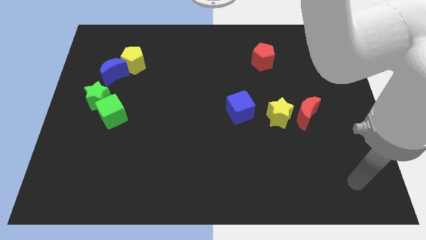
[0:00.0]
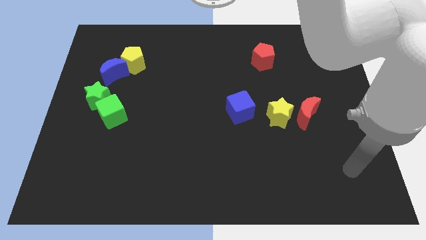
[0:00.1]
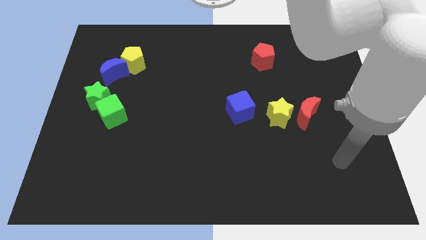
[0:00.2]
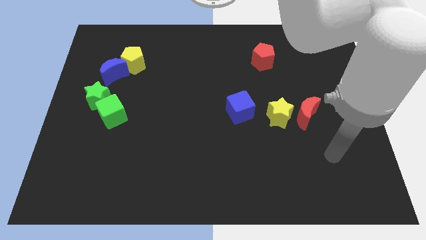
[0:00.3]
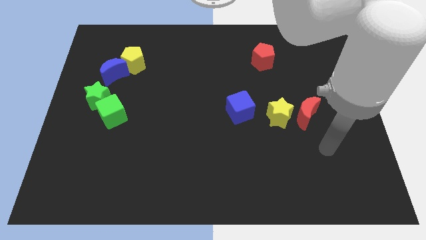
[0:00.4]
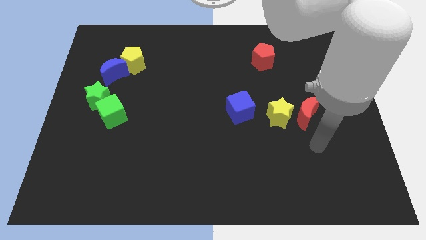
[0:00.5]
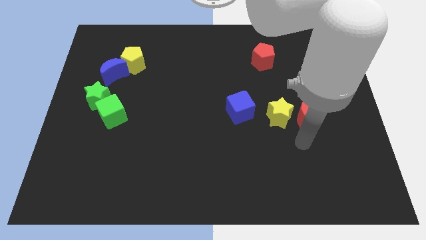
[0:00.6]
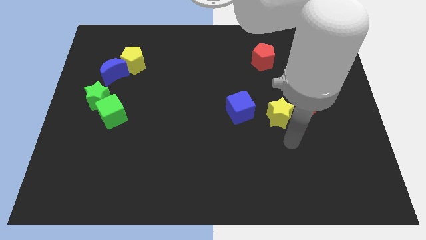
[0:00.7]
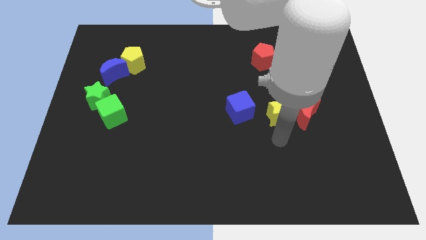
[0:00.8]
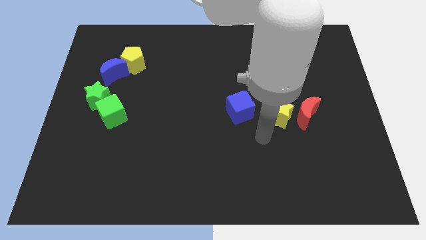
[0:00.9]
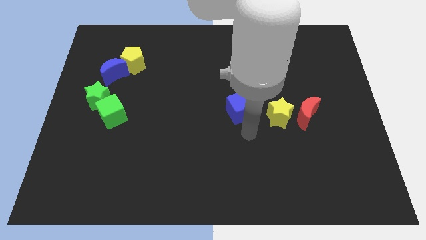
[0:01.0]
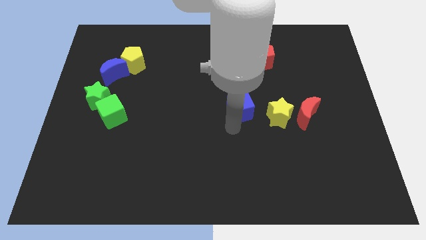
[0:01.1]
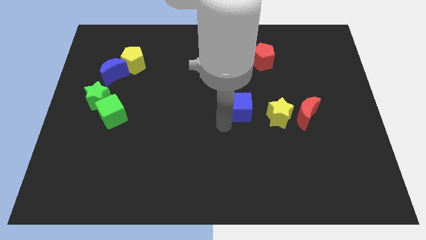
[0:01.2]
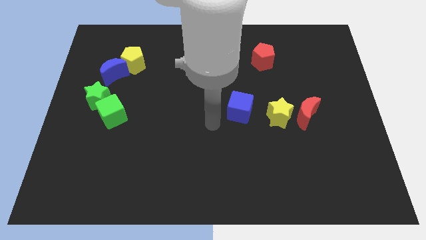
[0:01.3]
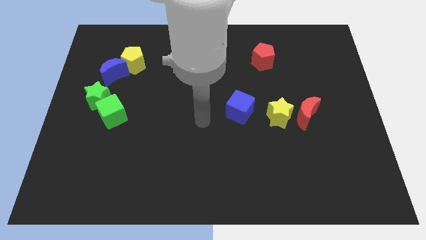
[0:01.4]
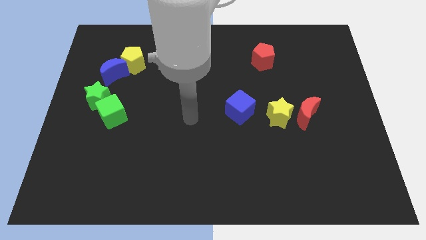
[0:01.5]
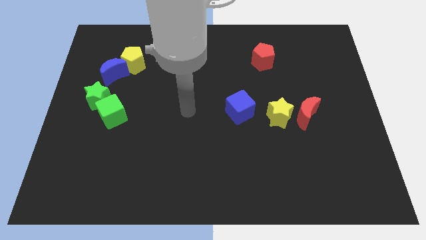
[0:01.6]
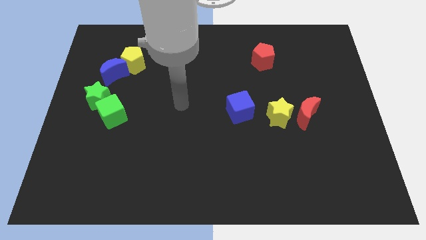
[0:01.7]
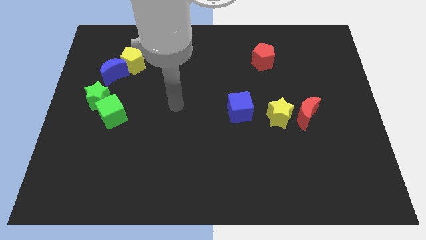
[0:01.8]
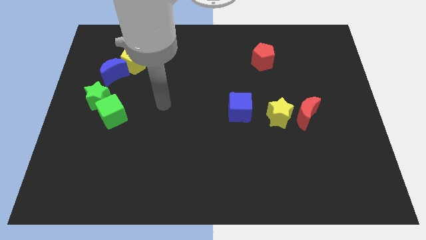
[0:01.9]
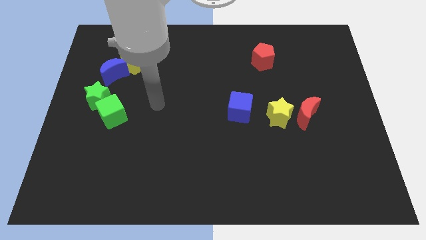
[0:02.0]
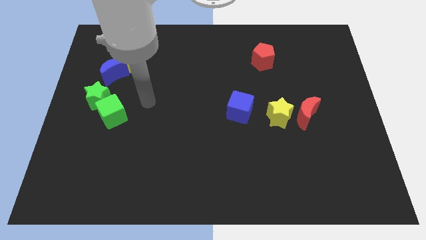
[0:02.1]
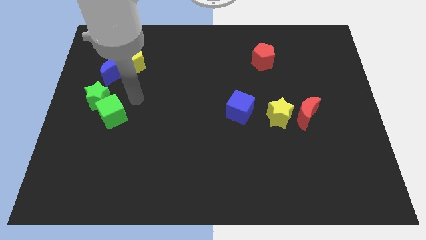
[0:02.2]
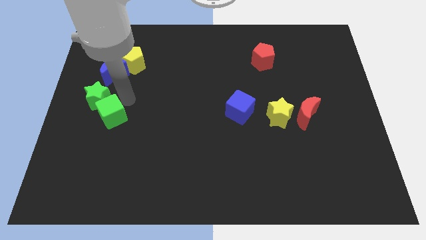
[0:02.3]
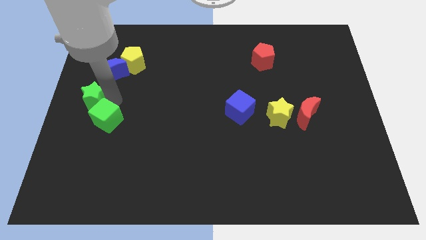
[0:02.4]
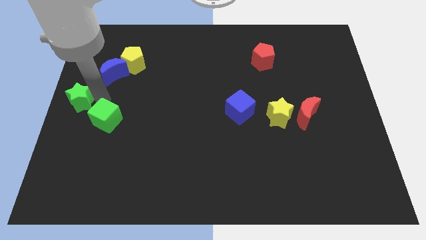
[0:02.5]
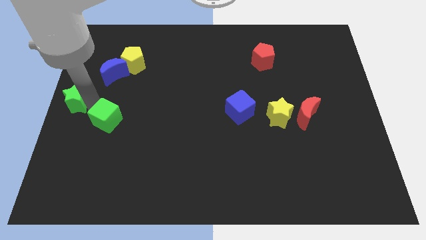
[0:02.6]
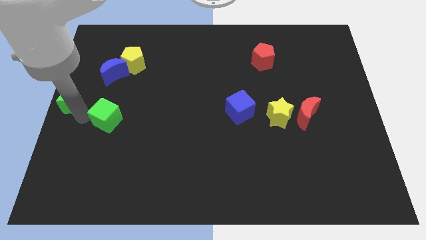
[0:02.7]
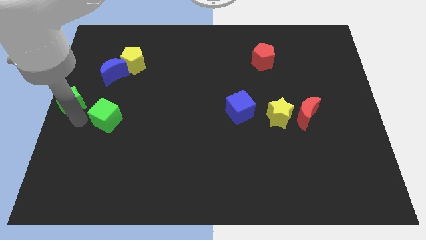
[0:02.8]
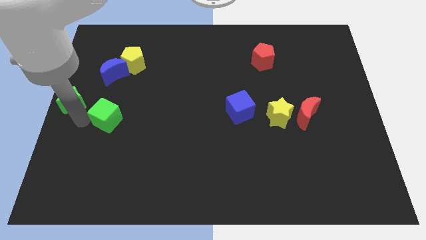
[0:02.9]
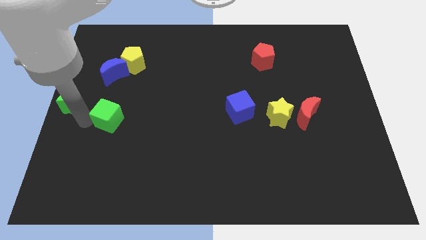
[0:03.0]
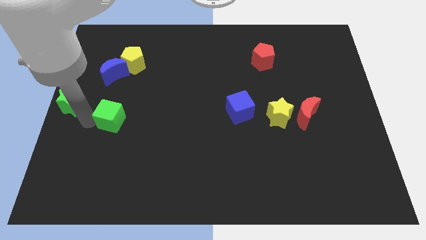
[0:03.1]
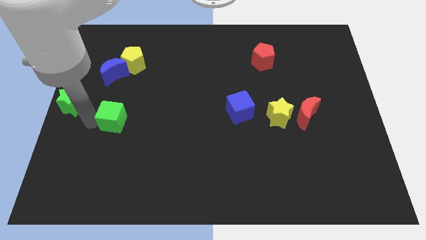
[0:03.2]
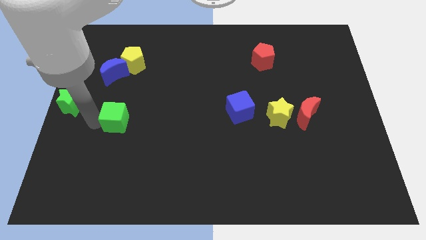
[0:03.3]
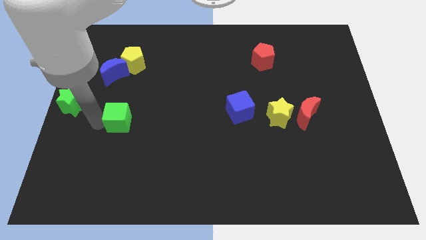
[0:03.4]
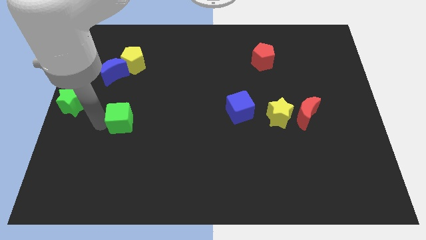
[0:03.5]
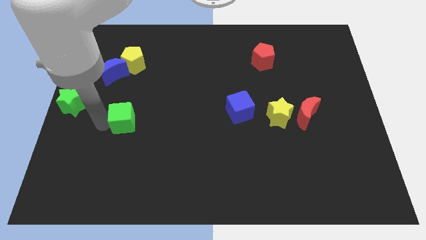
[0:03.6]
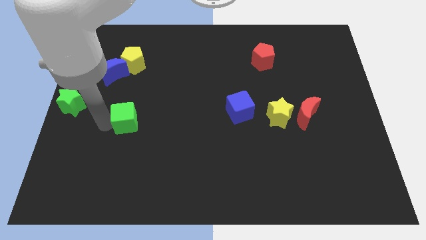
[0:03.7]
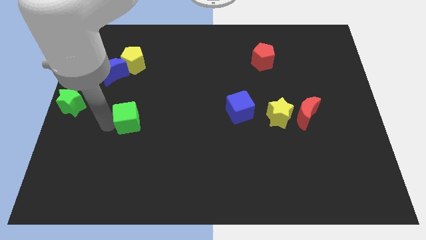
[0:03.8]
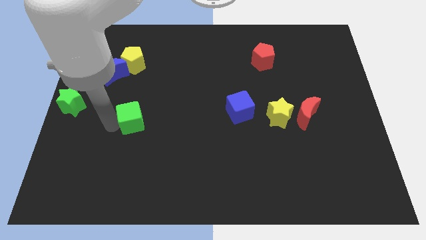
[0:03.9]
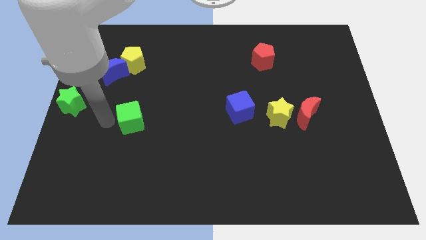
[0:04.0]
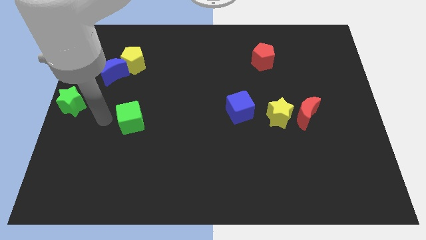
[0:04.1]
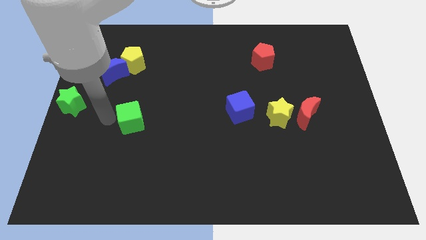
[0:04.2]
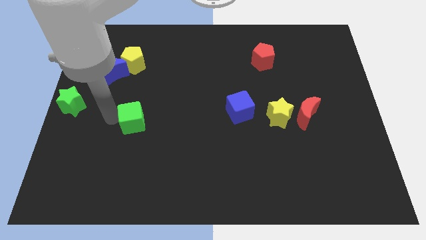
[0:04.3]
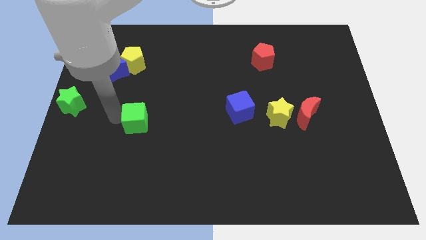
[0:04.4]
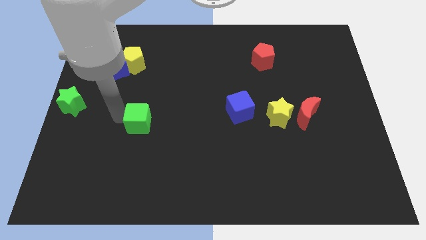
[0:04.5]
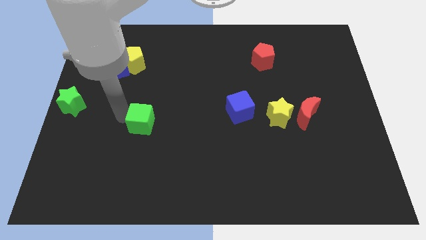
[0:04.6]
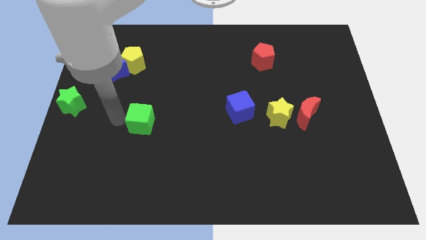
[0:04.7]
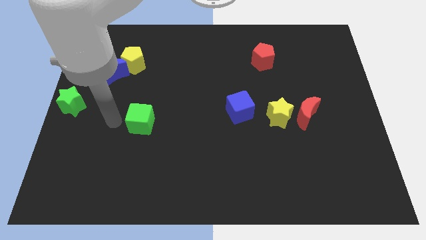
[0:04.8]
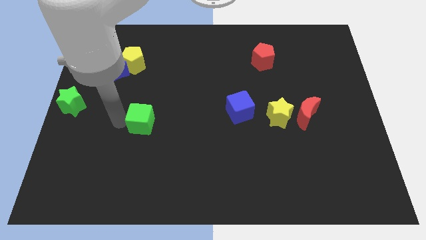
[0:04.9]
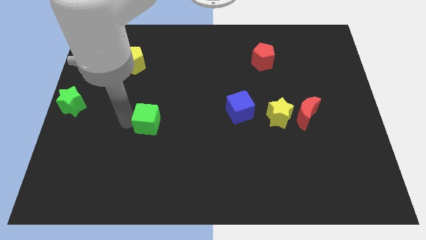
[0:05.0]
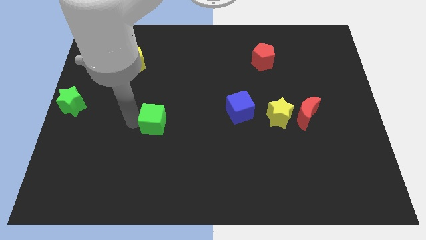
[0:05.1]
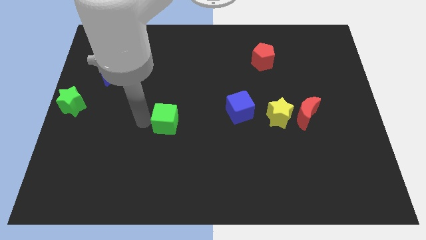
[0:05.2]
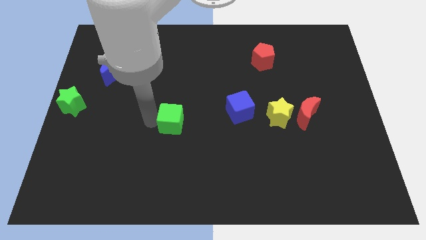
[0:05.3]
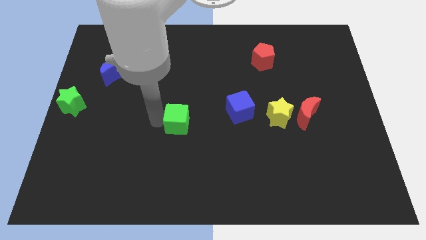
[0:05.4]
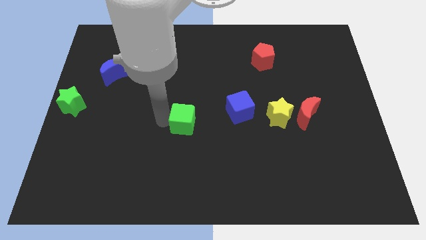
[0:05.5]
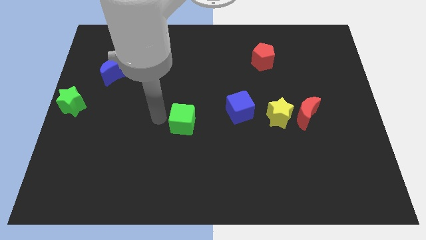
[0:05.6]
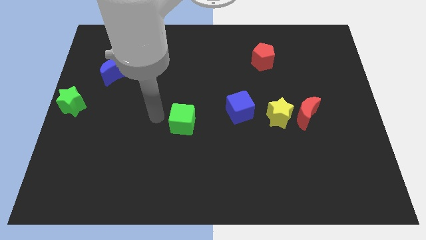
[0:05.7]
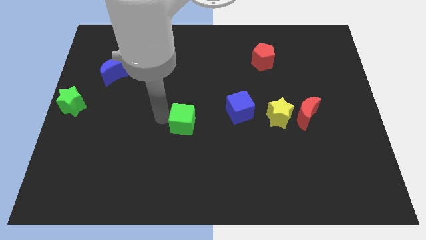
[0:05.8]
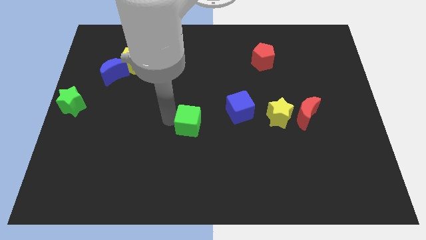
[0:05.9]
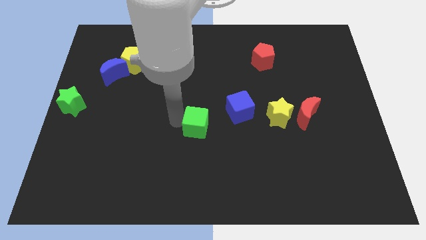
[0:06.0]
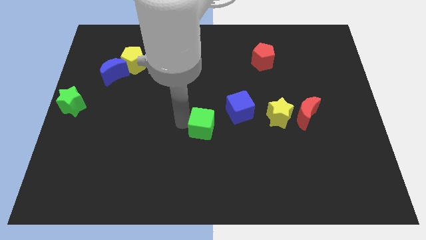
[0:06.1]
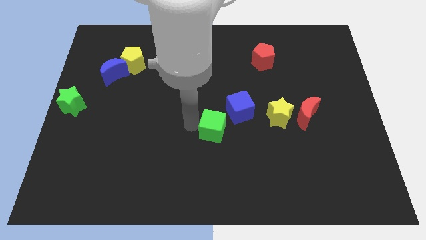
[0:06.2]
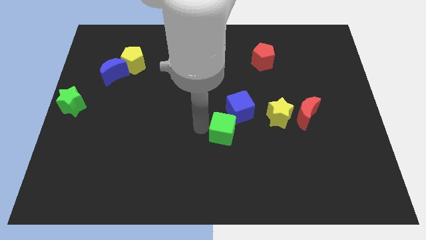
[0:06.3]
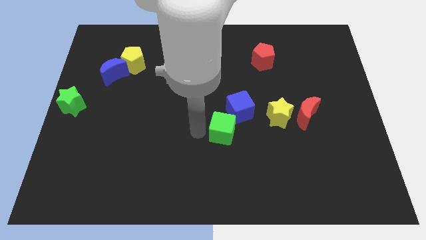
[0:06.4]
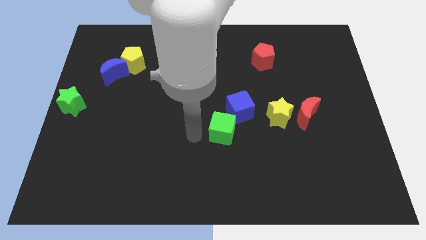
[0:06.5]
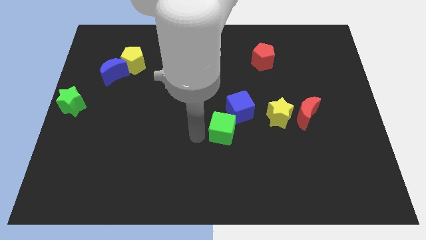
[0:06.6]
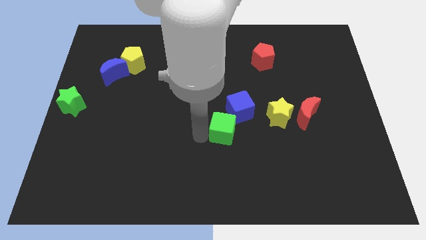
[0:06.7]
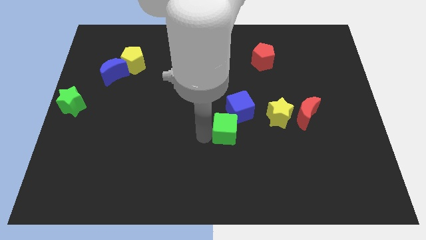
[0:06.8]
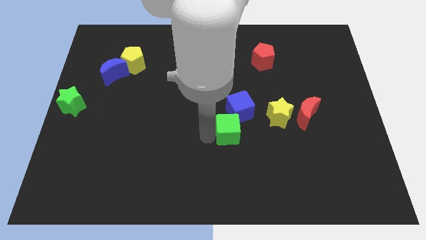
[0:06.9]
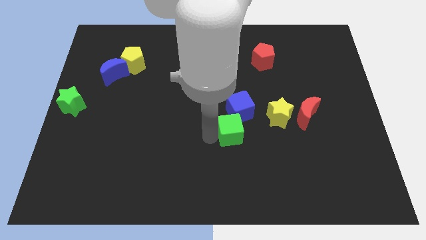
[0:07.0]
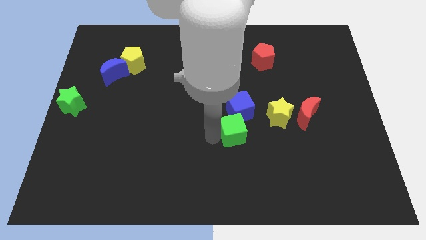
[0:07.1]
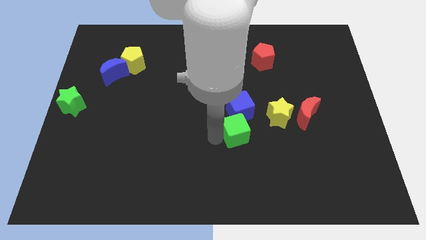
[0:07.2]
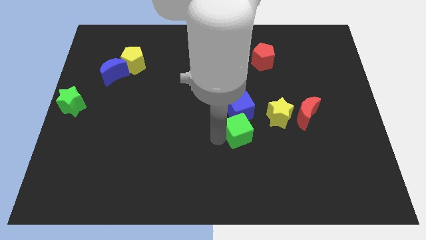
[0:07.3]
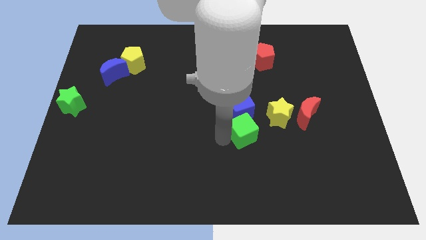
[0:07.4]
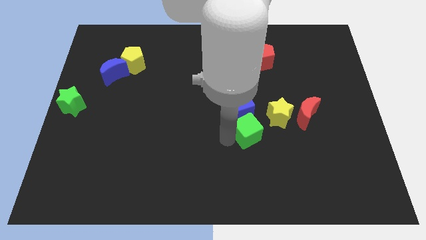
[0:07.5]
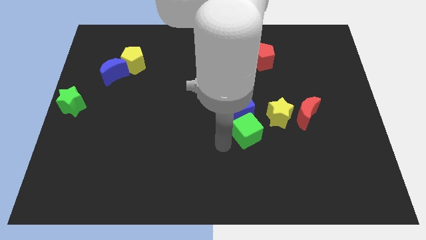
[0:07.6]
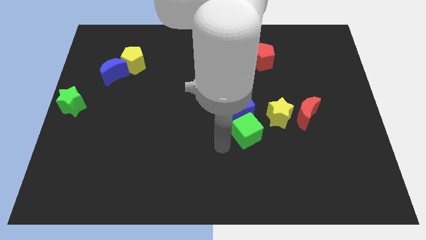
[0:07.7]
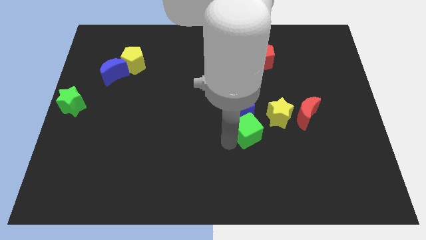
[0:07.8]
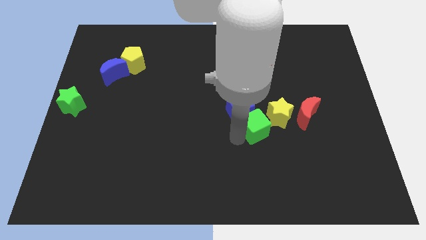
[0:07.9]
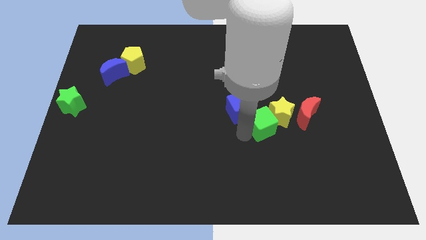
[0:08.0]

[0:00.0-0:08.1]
slide the green cube towards the yellow star

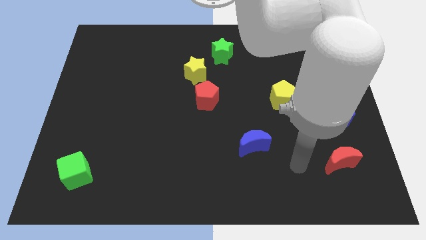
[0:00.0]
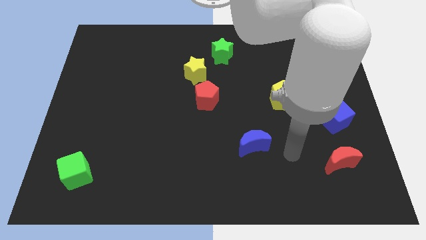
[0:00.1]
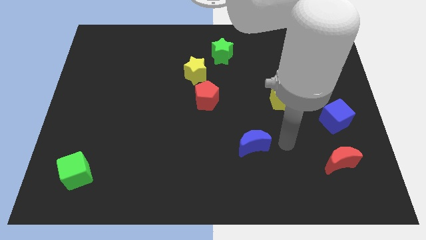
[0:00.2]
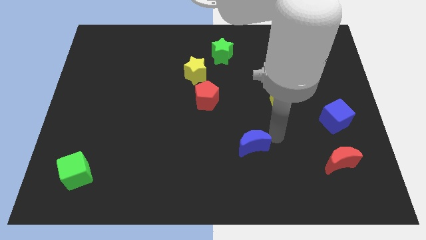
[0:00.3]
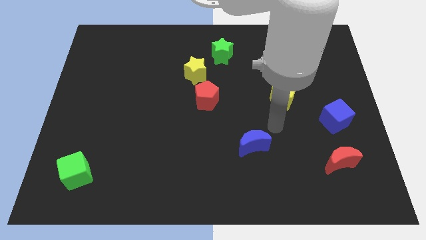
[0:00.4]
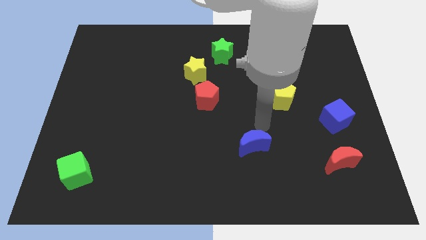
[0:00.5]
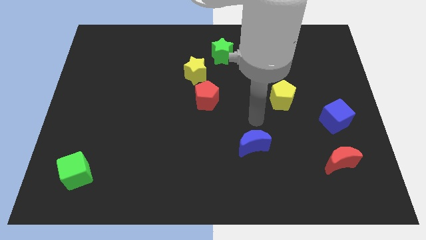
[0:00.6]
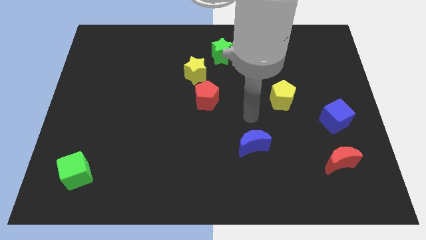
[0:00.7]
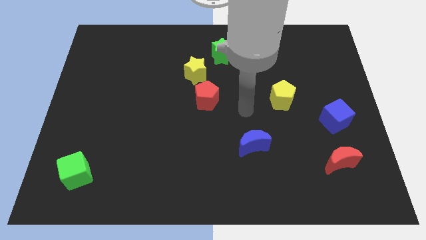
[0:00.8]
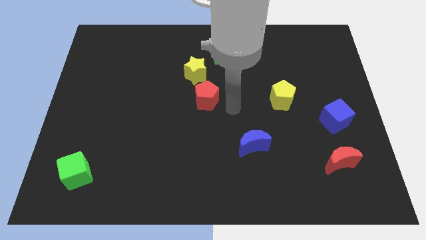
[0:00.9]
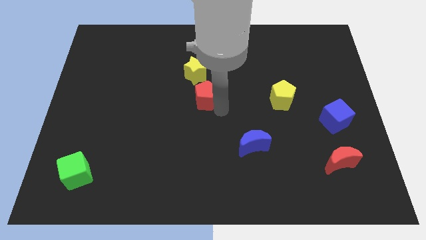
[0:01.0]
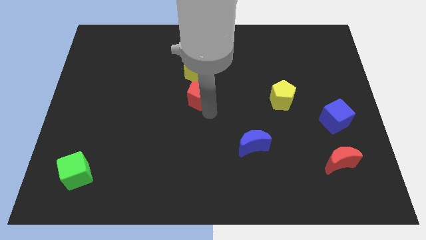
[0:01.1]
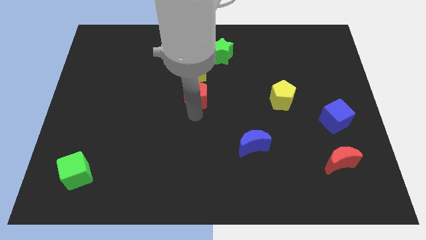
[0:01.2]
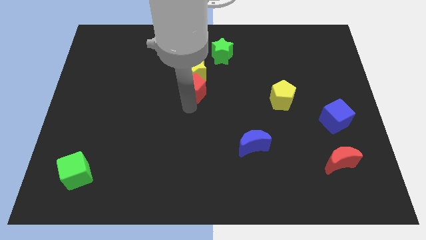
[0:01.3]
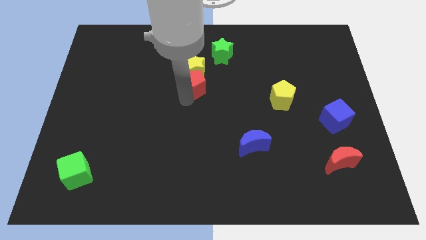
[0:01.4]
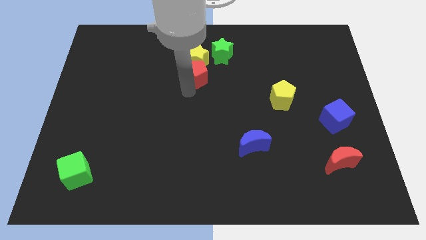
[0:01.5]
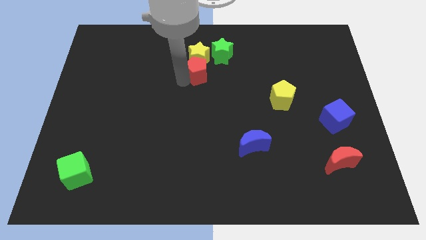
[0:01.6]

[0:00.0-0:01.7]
move the yellow star towards the green star
